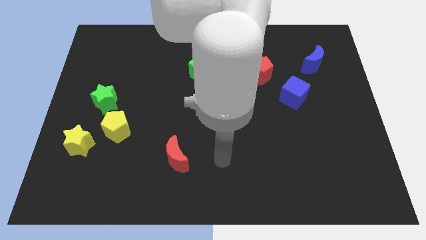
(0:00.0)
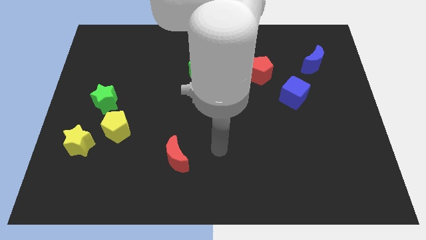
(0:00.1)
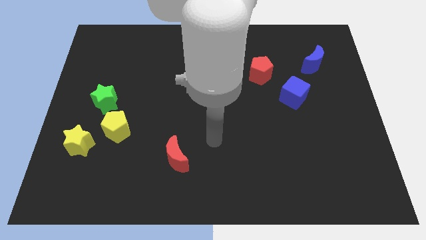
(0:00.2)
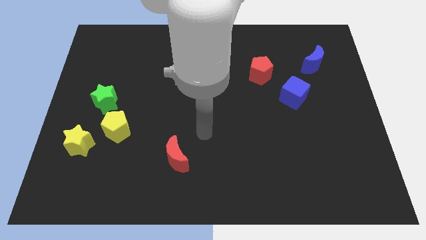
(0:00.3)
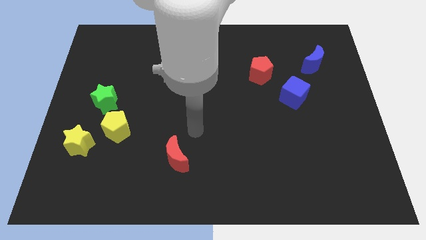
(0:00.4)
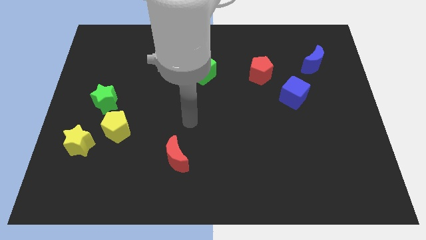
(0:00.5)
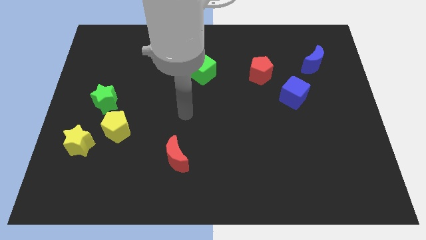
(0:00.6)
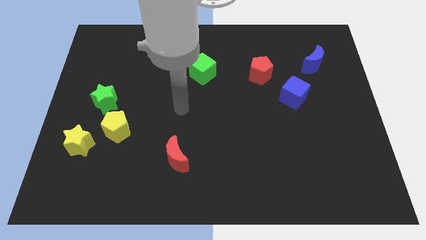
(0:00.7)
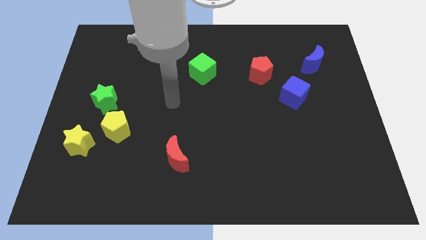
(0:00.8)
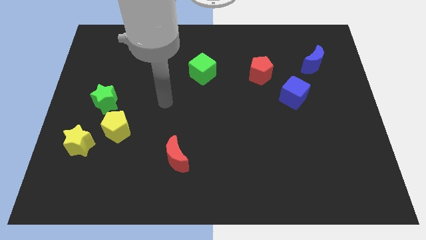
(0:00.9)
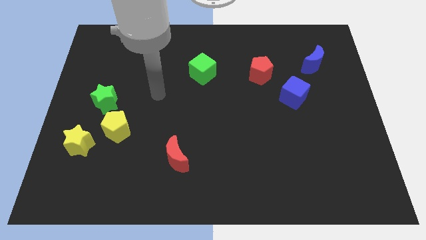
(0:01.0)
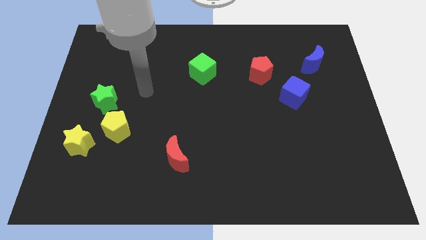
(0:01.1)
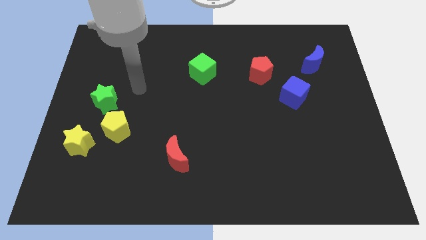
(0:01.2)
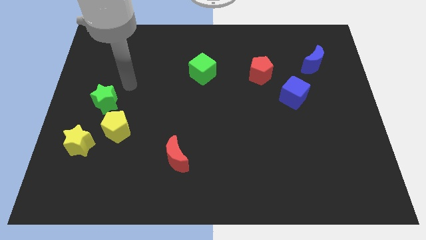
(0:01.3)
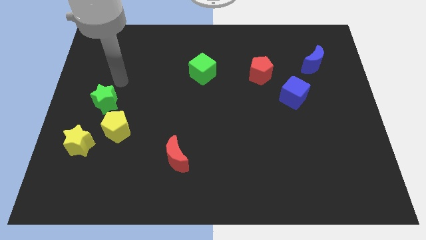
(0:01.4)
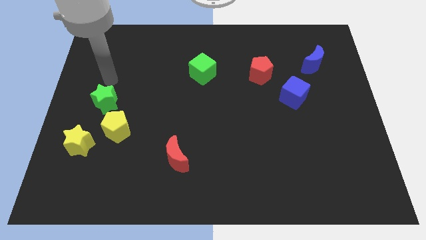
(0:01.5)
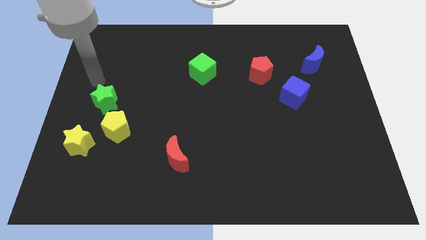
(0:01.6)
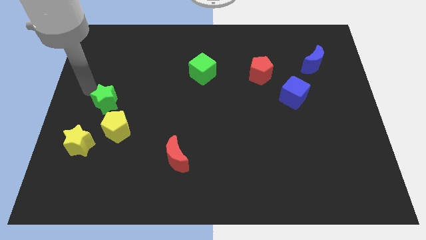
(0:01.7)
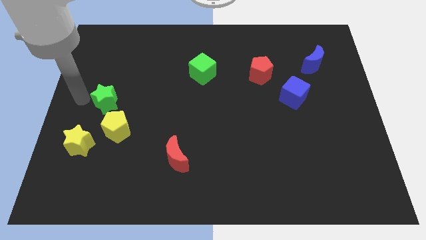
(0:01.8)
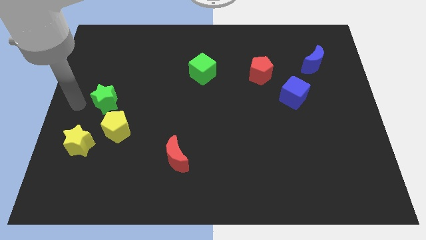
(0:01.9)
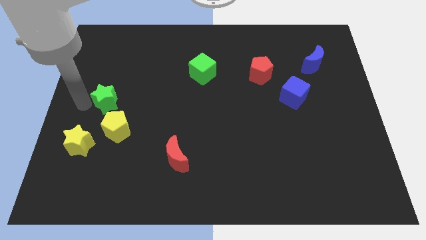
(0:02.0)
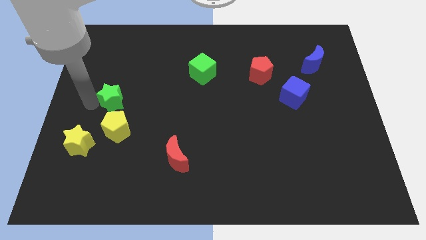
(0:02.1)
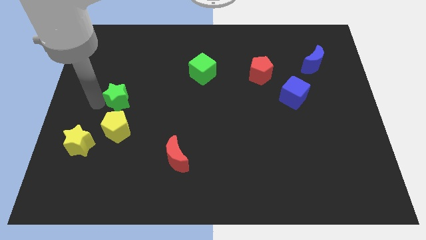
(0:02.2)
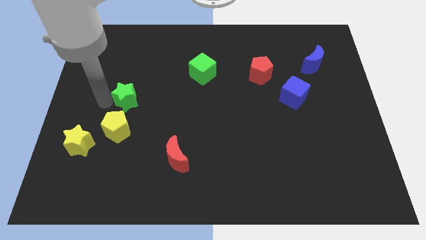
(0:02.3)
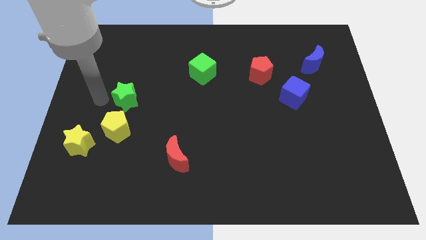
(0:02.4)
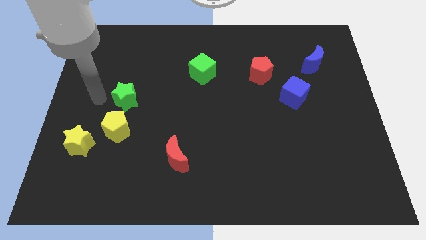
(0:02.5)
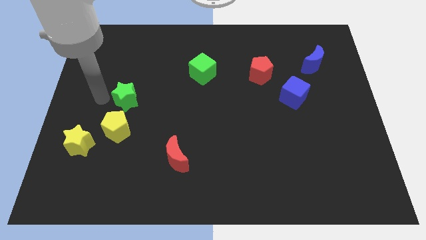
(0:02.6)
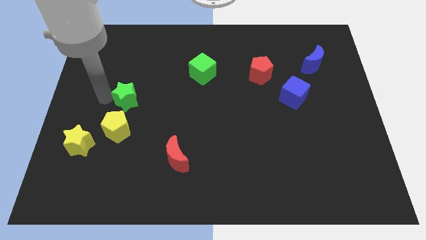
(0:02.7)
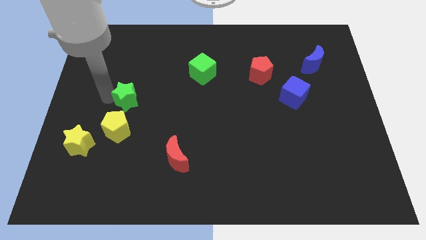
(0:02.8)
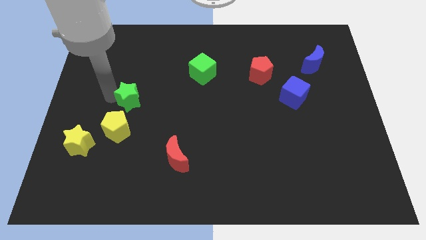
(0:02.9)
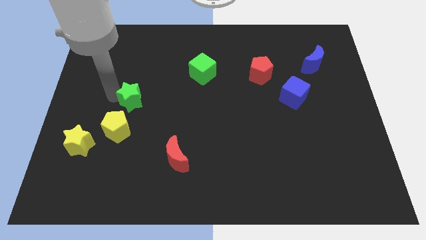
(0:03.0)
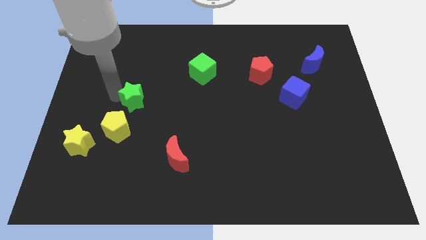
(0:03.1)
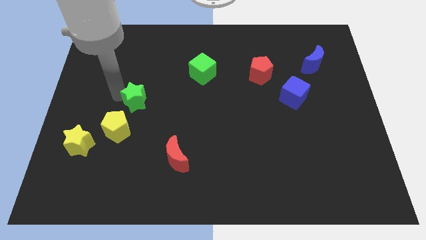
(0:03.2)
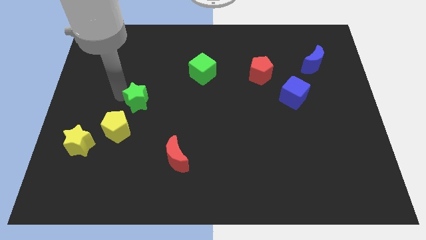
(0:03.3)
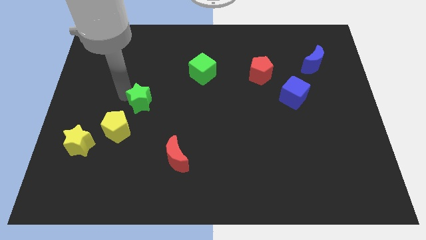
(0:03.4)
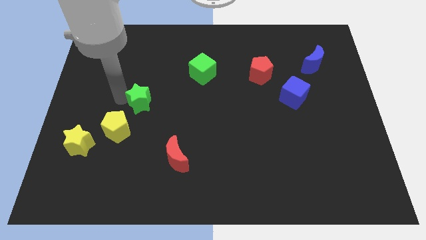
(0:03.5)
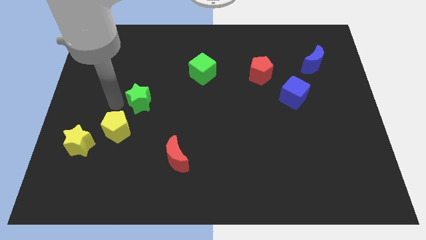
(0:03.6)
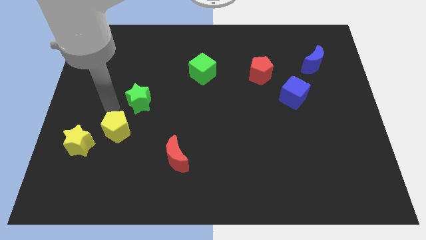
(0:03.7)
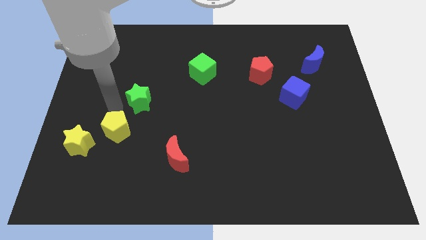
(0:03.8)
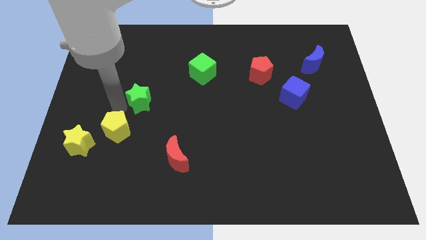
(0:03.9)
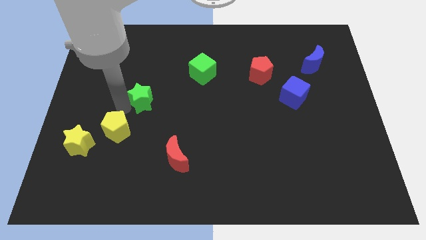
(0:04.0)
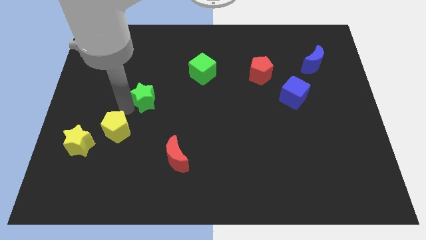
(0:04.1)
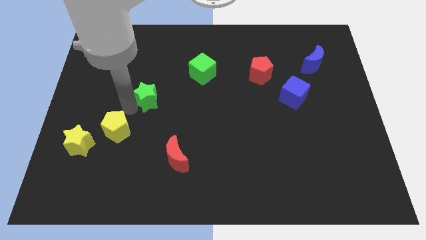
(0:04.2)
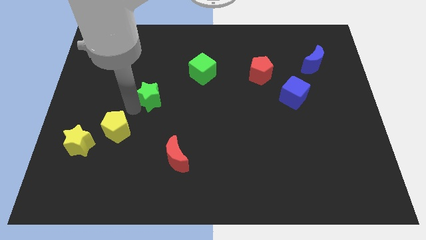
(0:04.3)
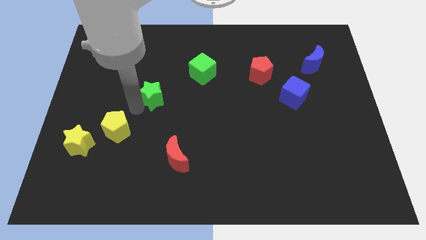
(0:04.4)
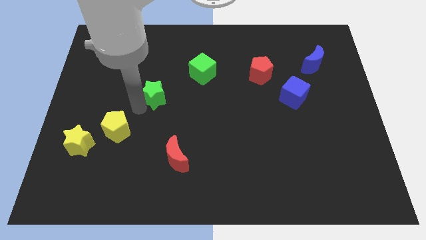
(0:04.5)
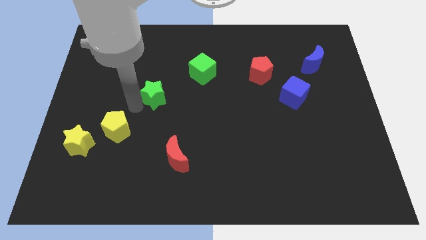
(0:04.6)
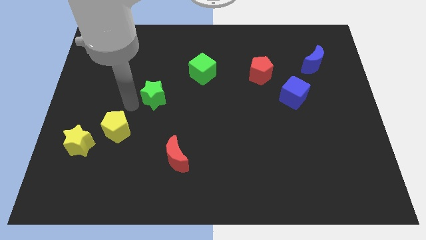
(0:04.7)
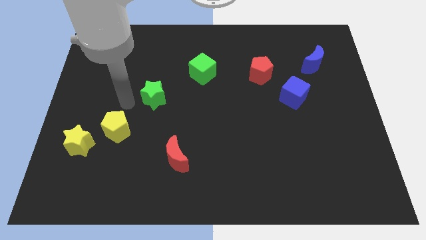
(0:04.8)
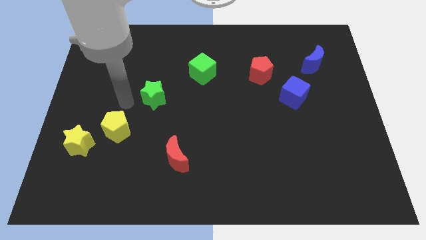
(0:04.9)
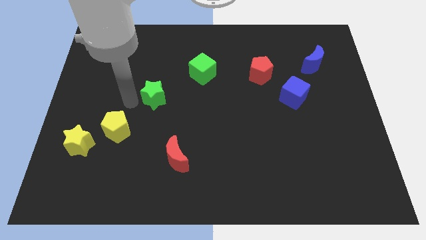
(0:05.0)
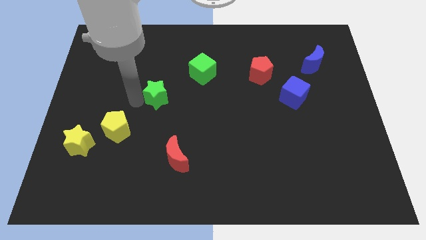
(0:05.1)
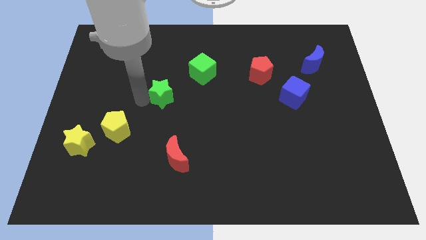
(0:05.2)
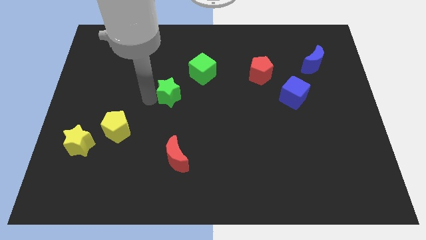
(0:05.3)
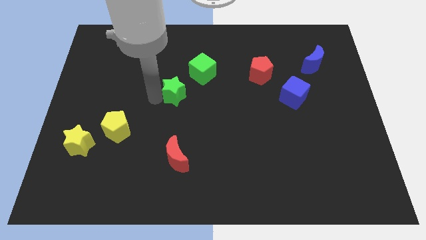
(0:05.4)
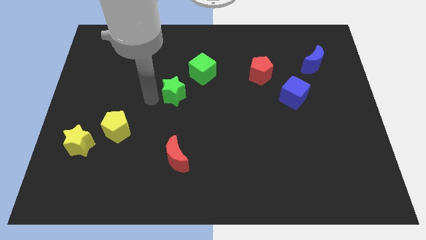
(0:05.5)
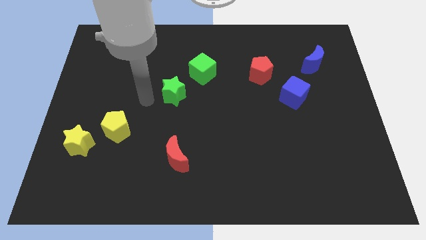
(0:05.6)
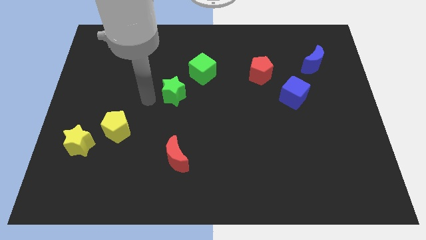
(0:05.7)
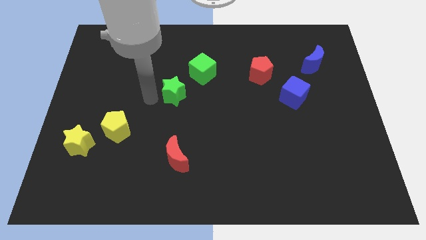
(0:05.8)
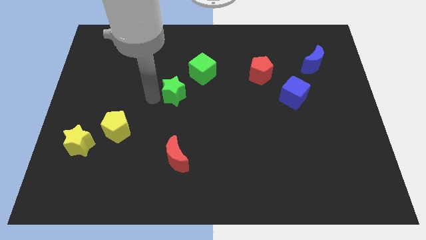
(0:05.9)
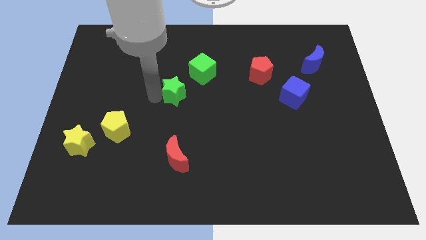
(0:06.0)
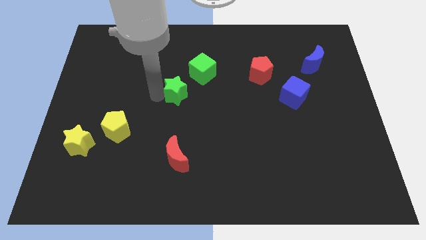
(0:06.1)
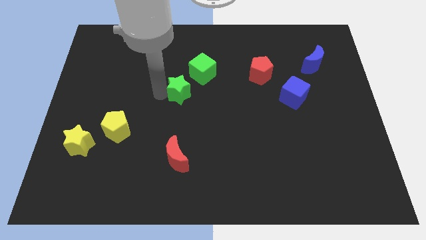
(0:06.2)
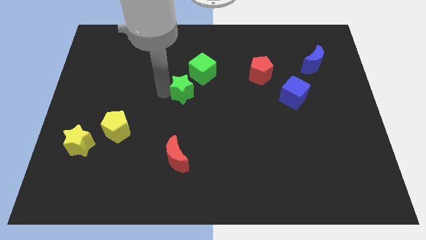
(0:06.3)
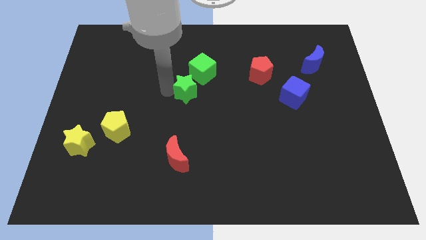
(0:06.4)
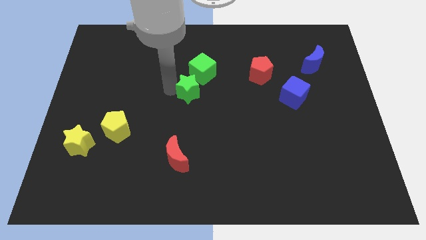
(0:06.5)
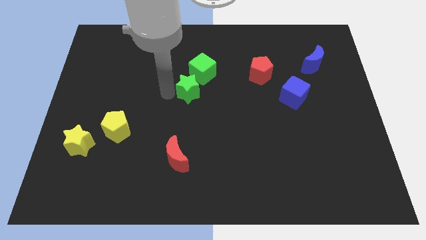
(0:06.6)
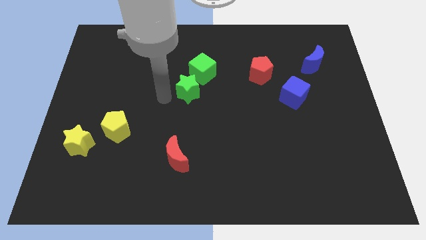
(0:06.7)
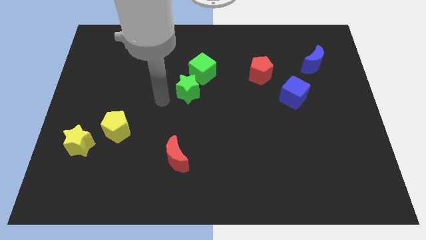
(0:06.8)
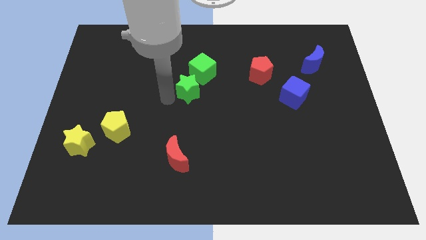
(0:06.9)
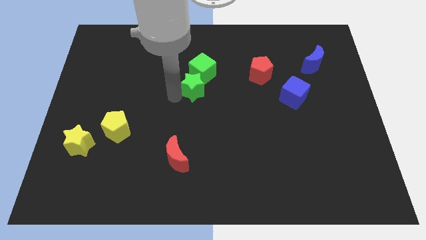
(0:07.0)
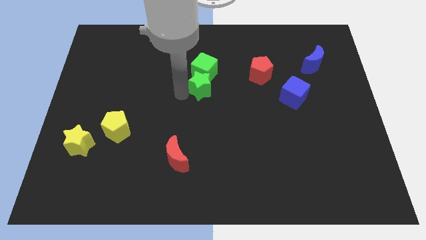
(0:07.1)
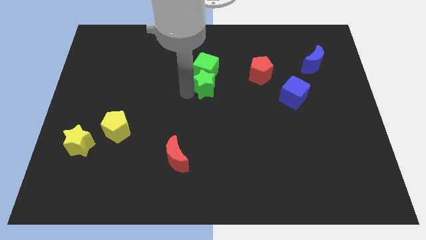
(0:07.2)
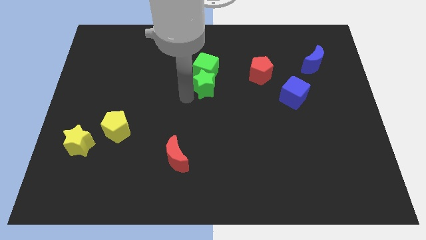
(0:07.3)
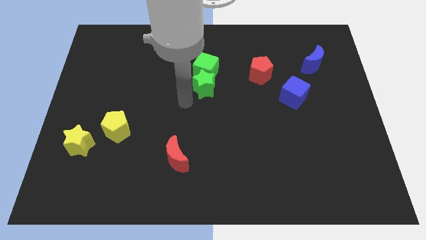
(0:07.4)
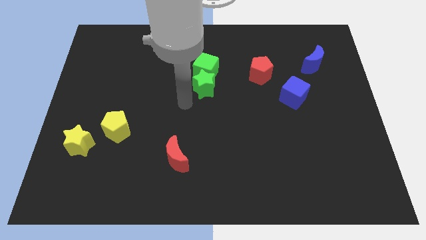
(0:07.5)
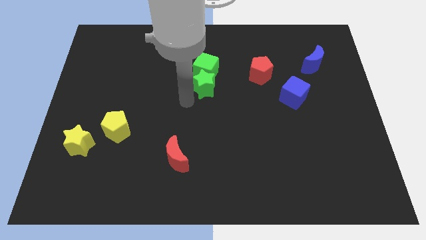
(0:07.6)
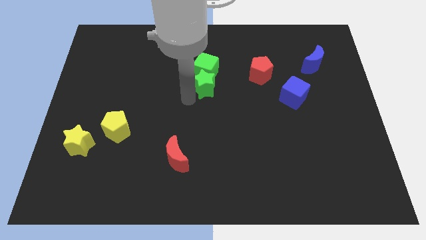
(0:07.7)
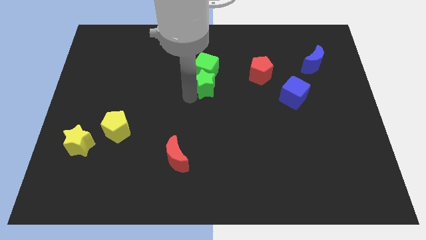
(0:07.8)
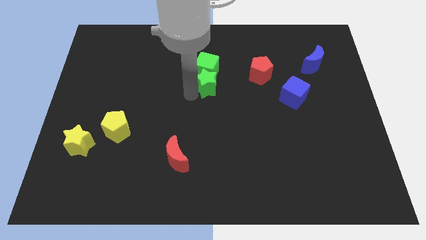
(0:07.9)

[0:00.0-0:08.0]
push the green star left of the red pentagon
